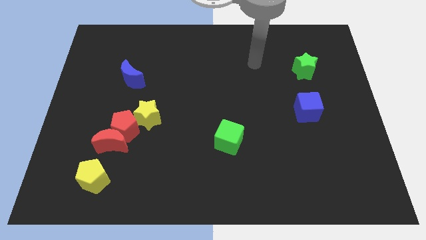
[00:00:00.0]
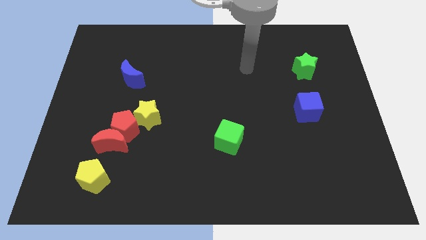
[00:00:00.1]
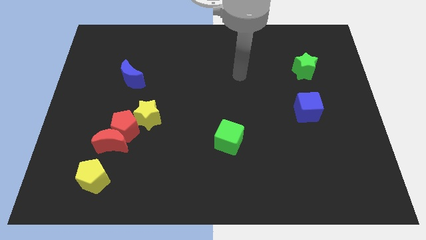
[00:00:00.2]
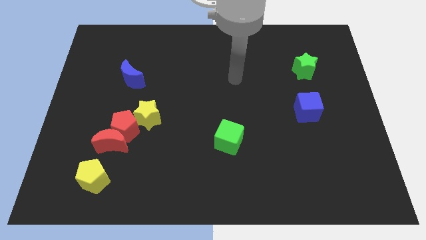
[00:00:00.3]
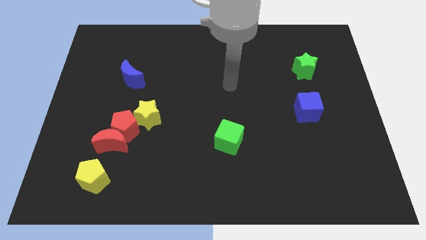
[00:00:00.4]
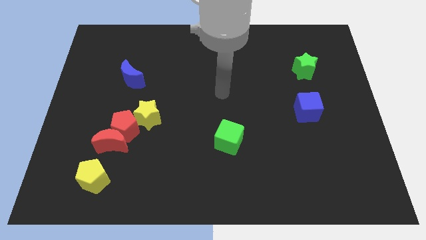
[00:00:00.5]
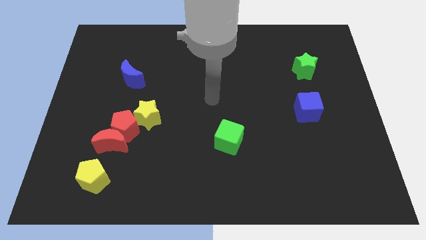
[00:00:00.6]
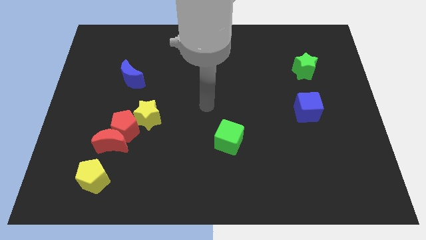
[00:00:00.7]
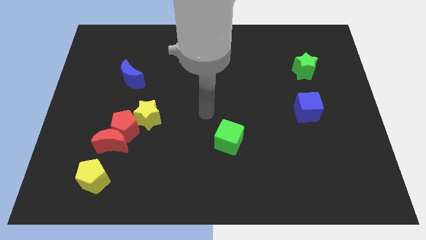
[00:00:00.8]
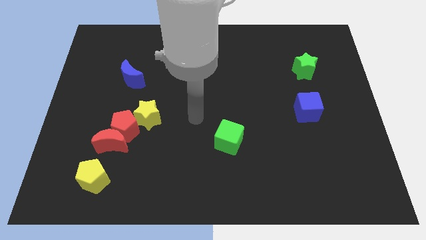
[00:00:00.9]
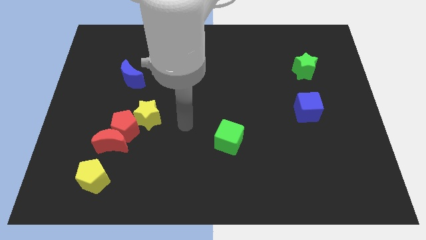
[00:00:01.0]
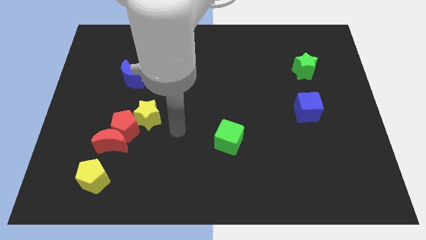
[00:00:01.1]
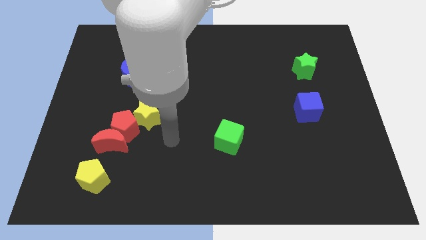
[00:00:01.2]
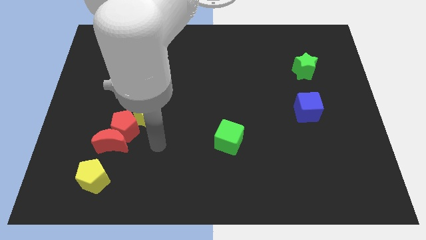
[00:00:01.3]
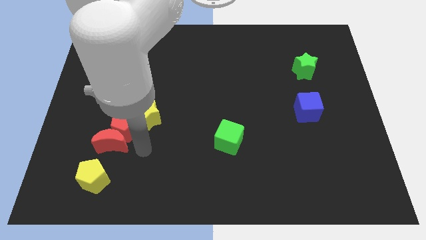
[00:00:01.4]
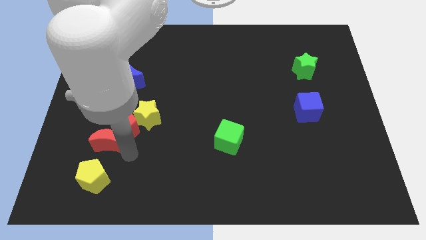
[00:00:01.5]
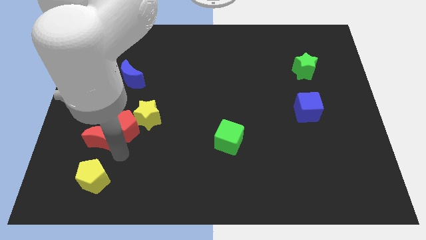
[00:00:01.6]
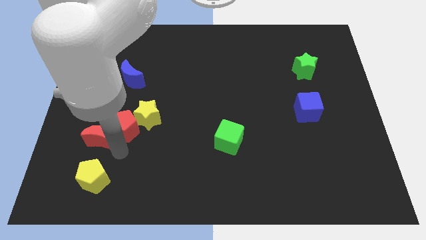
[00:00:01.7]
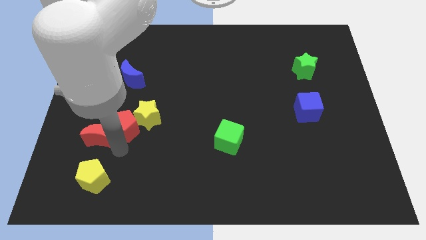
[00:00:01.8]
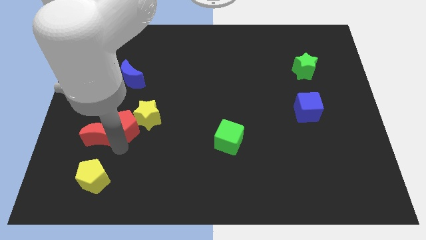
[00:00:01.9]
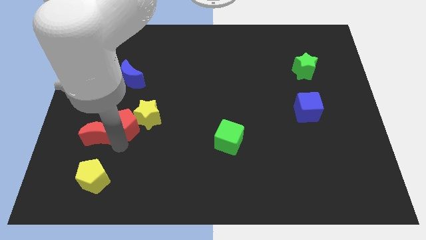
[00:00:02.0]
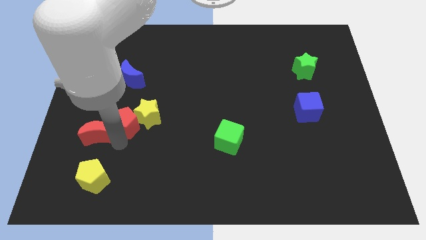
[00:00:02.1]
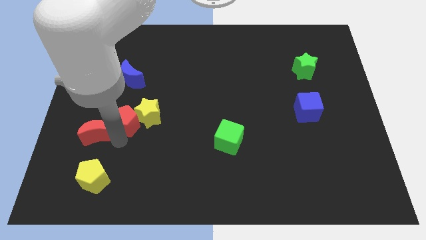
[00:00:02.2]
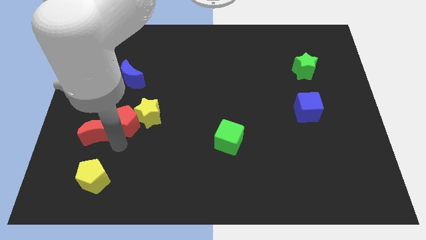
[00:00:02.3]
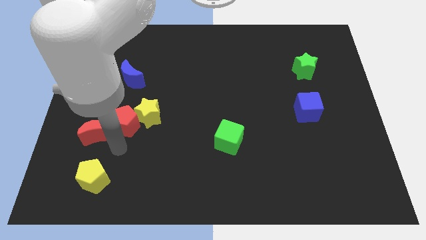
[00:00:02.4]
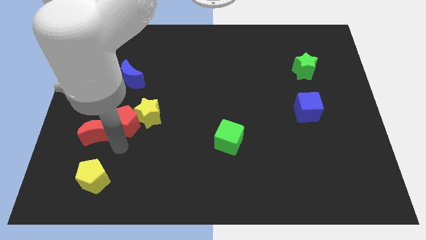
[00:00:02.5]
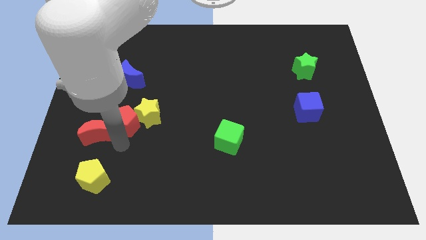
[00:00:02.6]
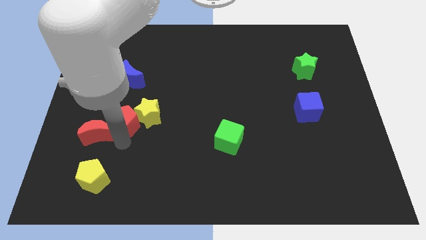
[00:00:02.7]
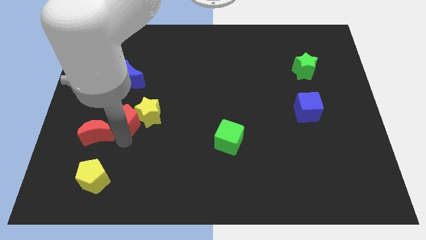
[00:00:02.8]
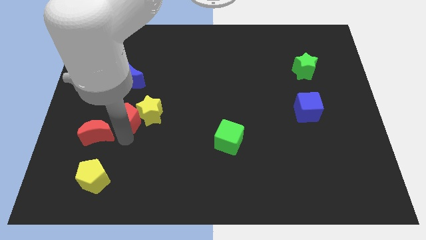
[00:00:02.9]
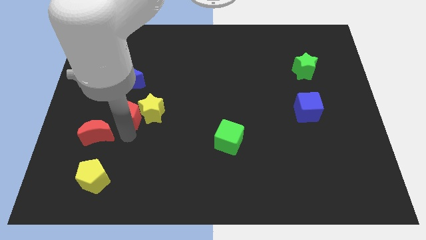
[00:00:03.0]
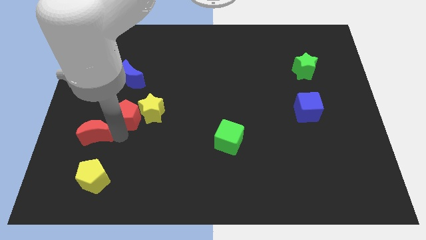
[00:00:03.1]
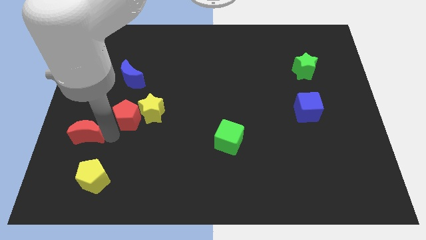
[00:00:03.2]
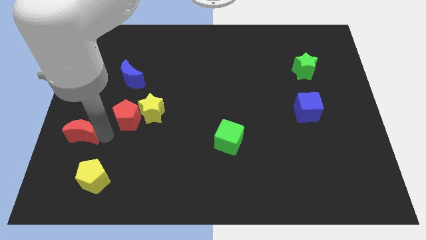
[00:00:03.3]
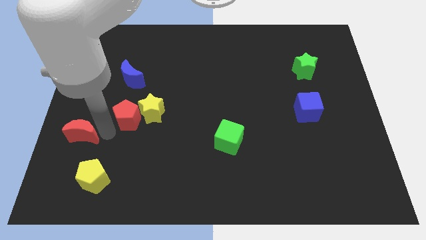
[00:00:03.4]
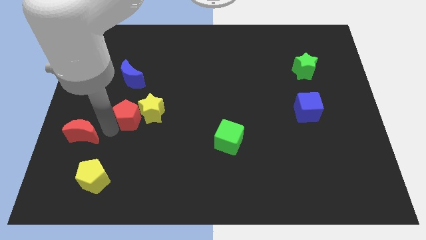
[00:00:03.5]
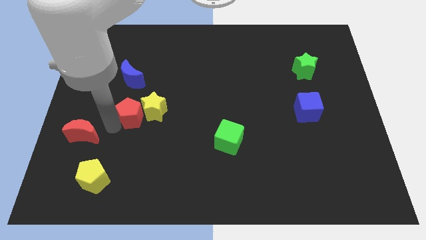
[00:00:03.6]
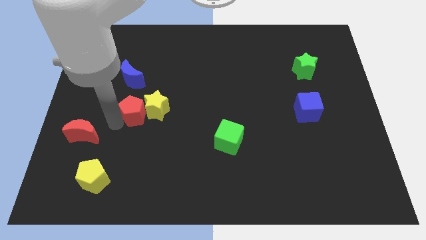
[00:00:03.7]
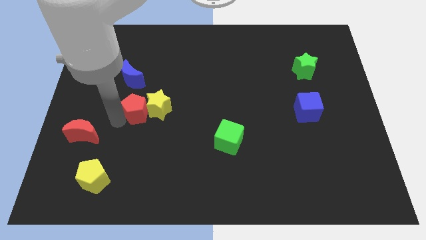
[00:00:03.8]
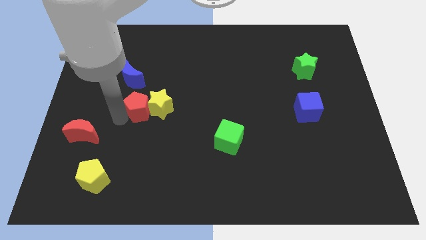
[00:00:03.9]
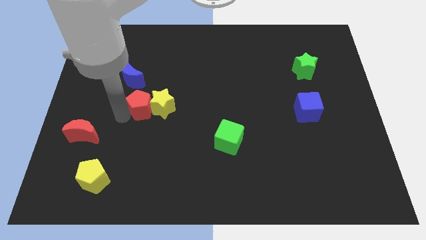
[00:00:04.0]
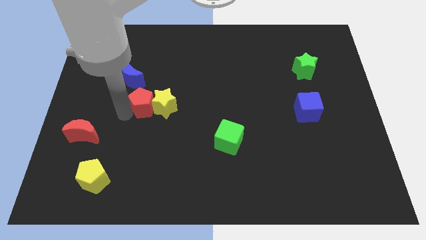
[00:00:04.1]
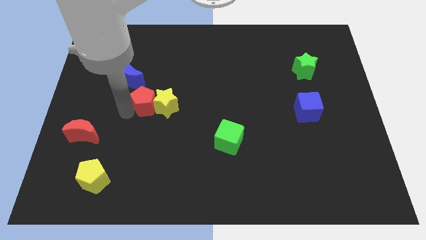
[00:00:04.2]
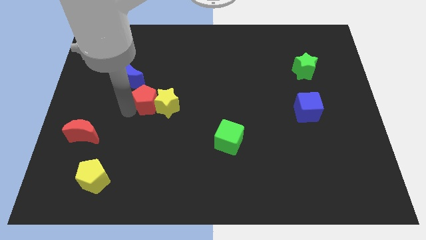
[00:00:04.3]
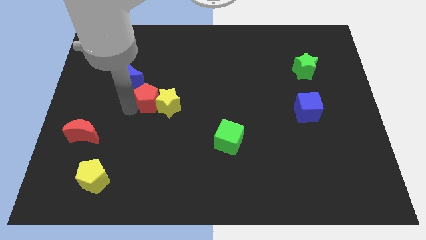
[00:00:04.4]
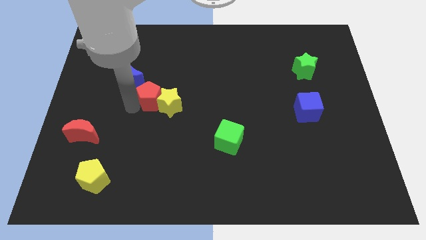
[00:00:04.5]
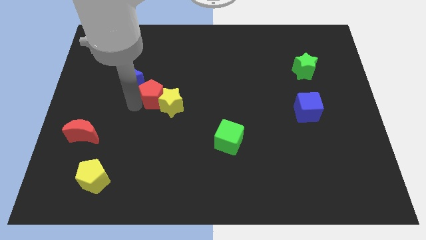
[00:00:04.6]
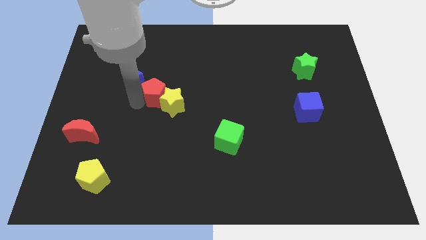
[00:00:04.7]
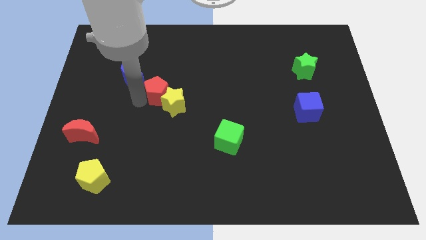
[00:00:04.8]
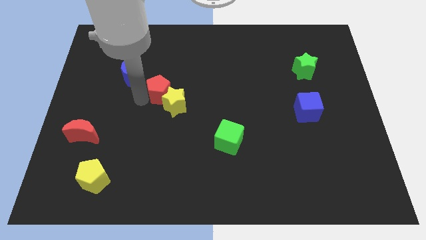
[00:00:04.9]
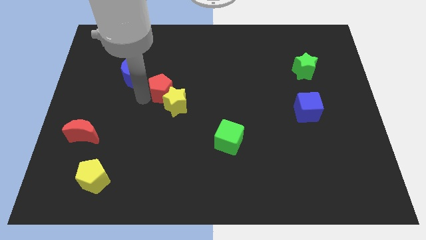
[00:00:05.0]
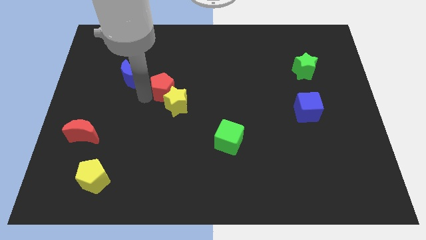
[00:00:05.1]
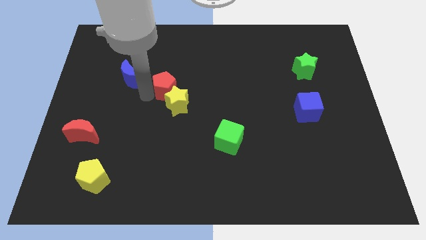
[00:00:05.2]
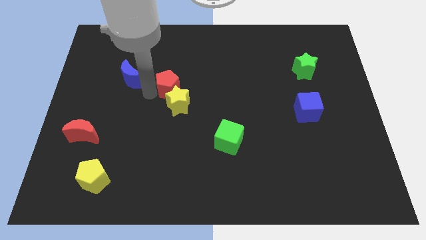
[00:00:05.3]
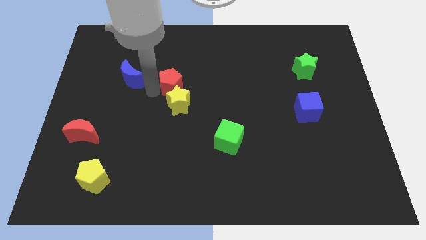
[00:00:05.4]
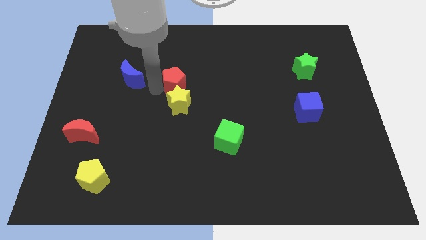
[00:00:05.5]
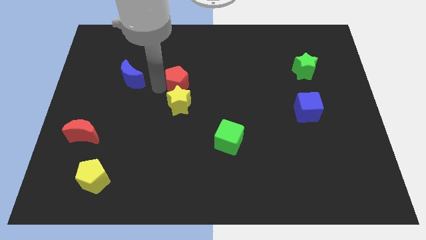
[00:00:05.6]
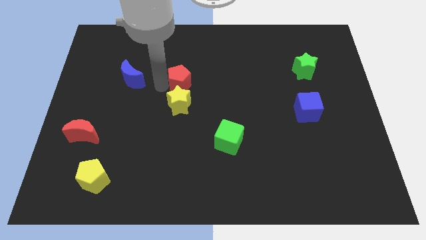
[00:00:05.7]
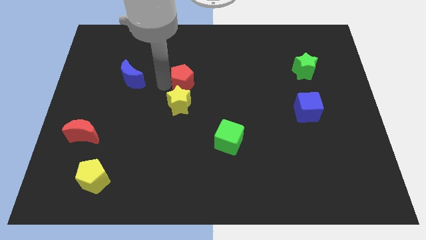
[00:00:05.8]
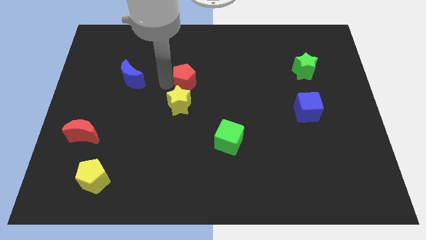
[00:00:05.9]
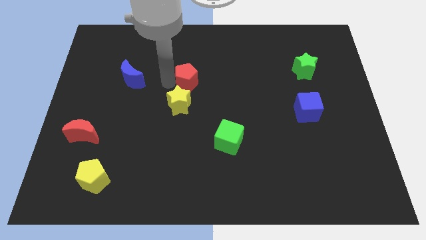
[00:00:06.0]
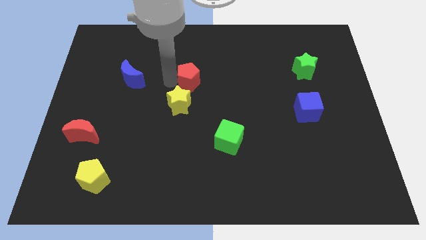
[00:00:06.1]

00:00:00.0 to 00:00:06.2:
slide the red pentagon upwards and right

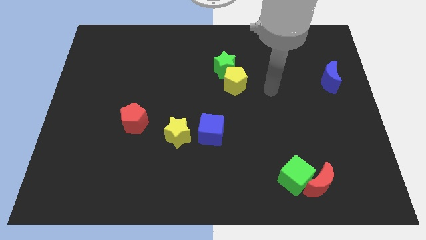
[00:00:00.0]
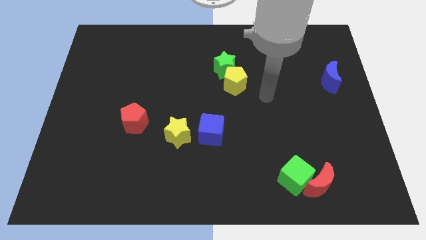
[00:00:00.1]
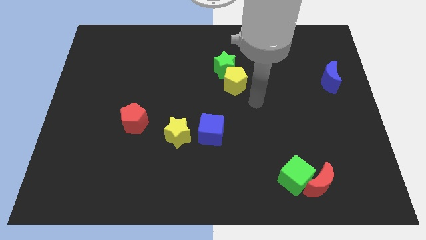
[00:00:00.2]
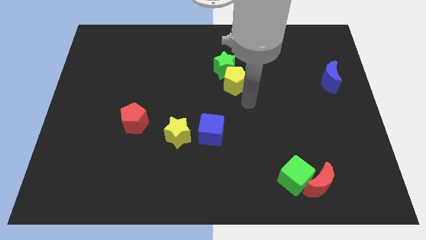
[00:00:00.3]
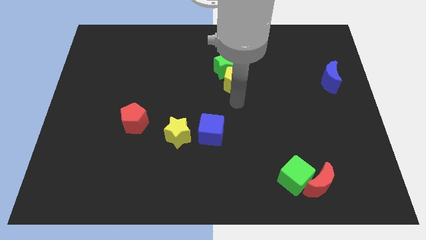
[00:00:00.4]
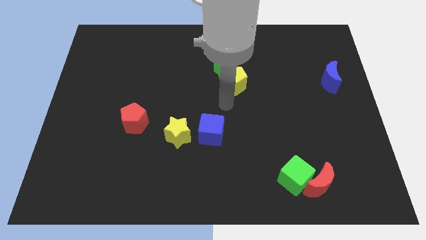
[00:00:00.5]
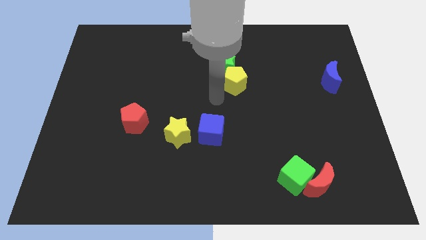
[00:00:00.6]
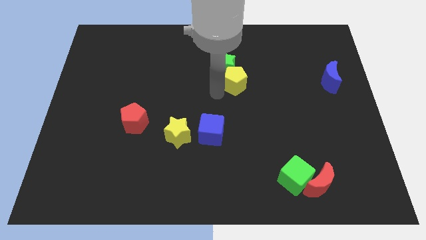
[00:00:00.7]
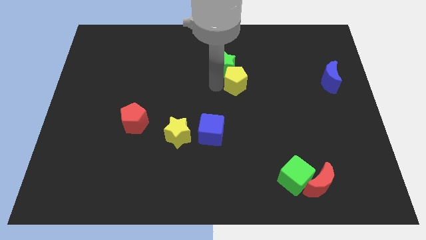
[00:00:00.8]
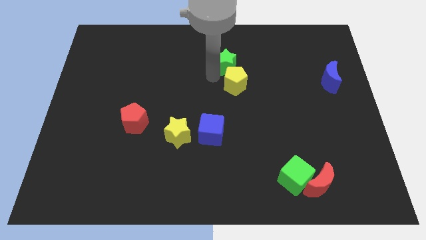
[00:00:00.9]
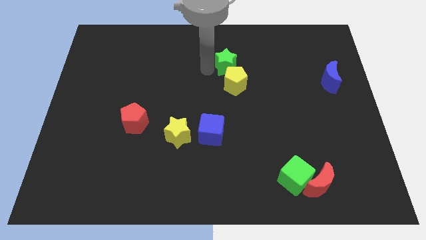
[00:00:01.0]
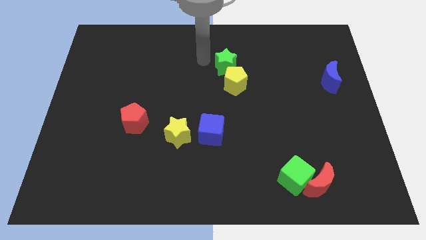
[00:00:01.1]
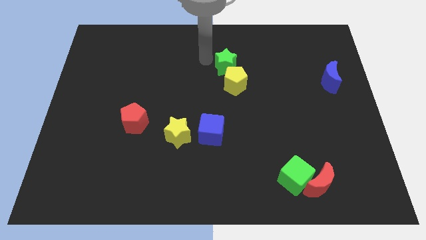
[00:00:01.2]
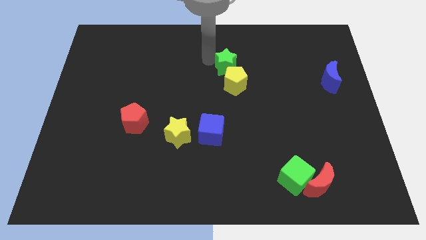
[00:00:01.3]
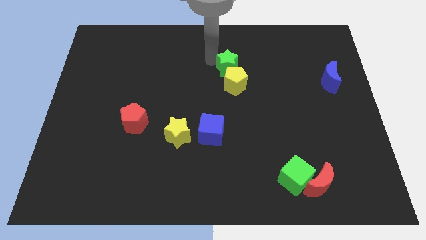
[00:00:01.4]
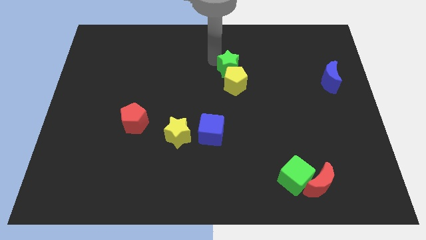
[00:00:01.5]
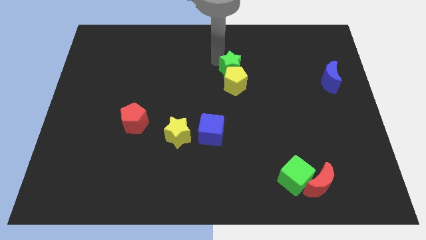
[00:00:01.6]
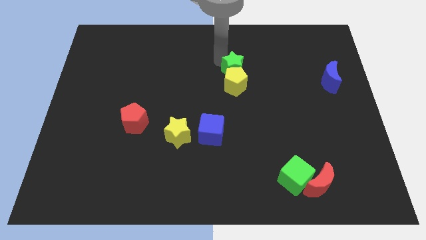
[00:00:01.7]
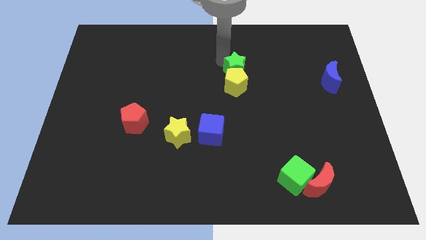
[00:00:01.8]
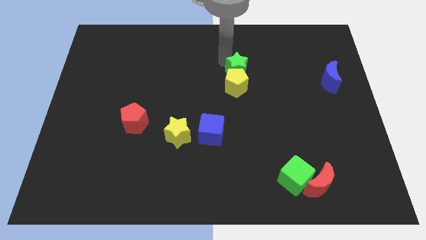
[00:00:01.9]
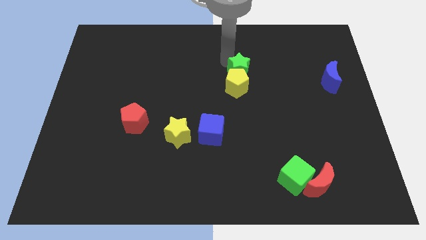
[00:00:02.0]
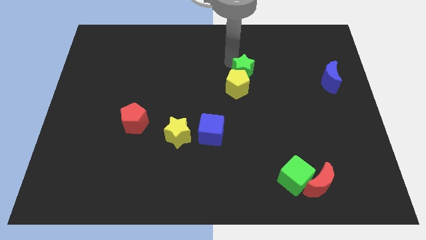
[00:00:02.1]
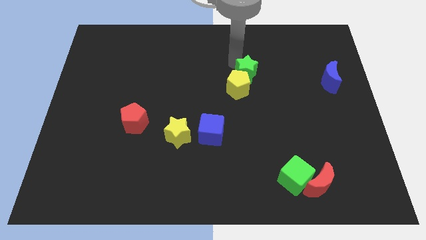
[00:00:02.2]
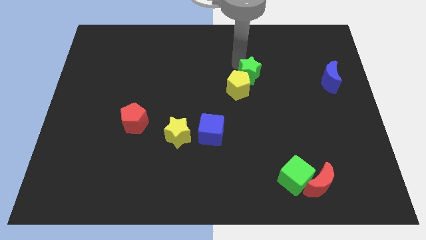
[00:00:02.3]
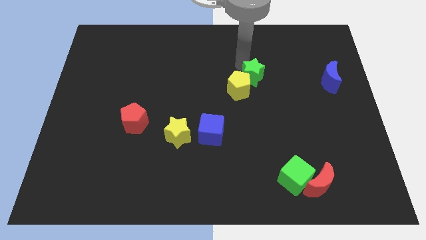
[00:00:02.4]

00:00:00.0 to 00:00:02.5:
push the green star to the right a bit
